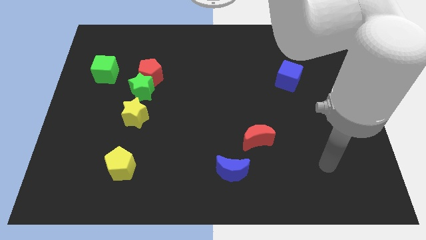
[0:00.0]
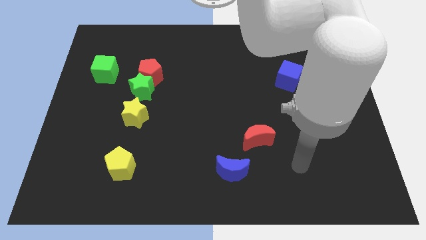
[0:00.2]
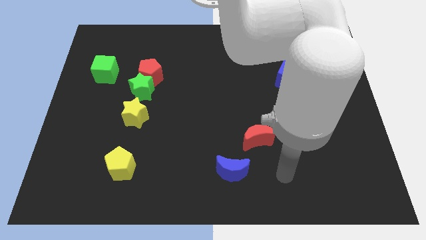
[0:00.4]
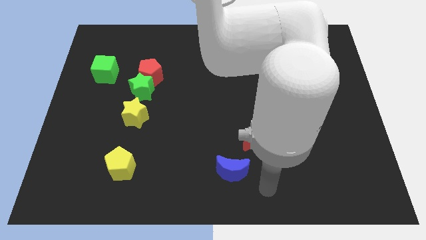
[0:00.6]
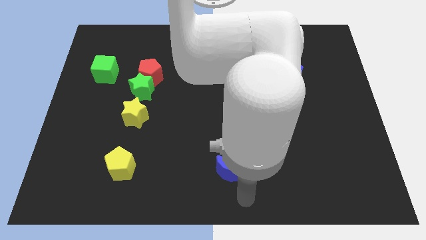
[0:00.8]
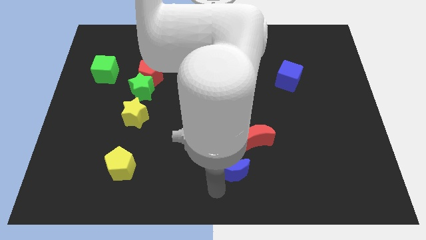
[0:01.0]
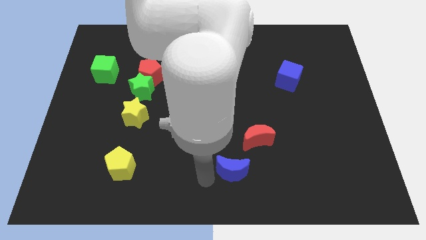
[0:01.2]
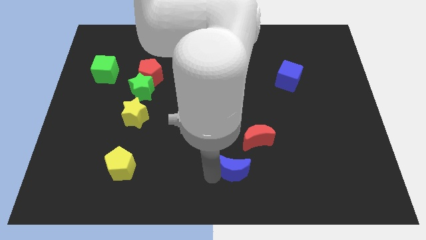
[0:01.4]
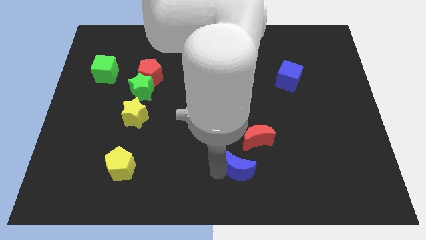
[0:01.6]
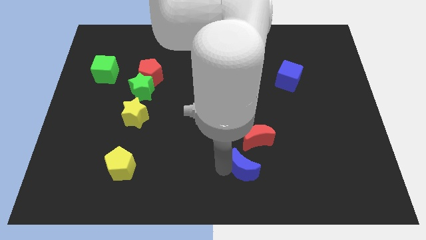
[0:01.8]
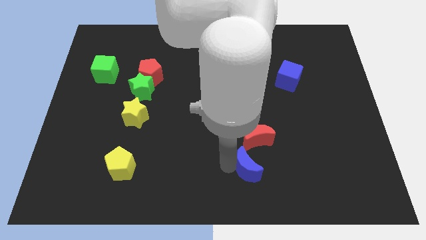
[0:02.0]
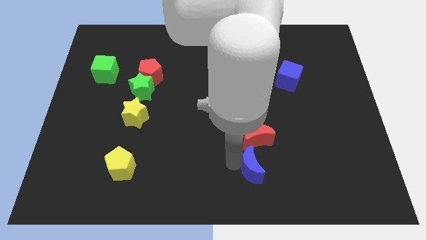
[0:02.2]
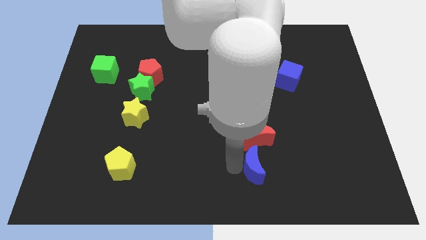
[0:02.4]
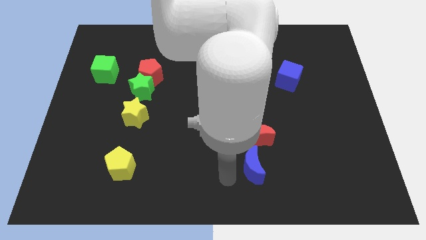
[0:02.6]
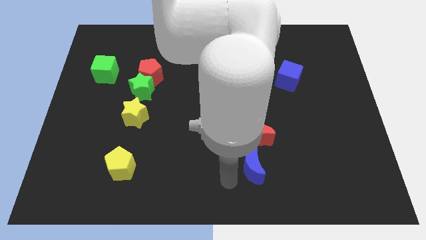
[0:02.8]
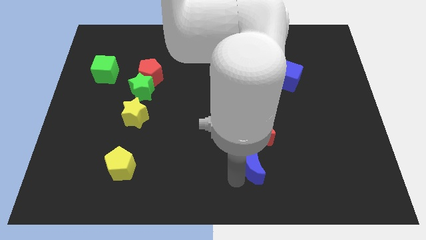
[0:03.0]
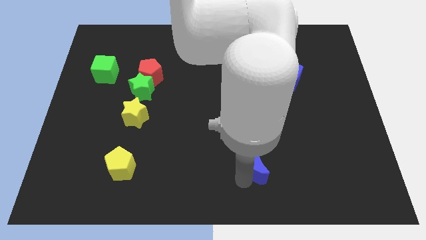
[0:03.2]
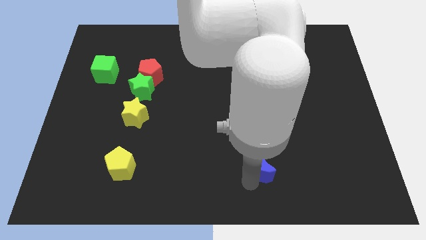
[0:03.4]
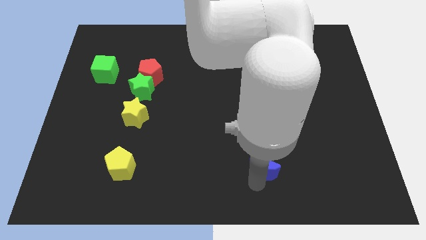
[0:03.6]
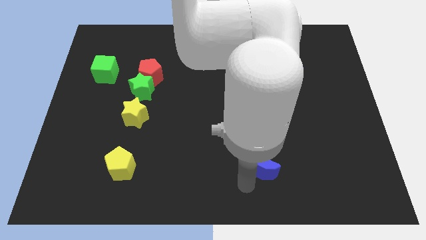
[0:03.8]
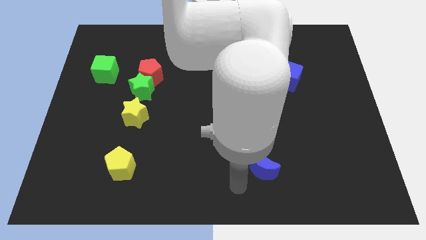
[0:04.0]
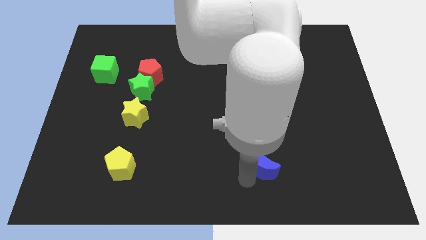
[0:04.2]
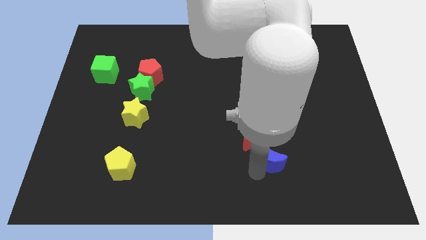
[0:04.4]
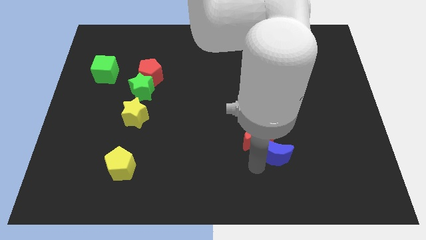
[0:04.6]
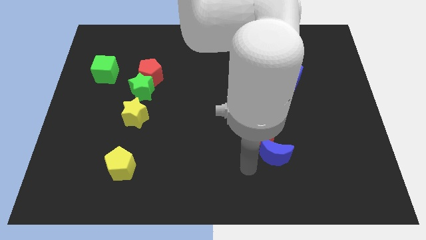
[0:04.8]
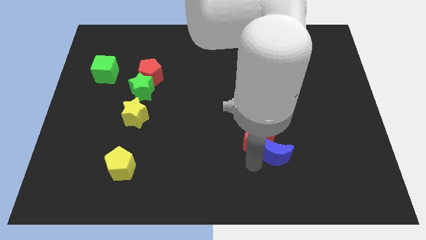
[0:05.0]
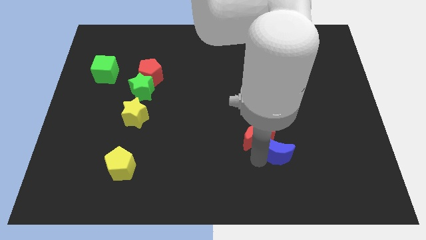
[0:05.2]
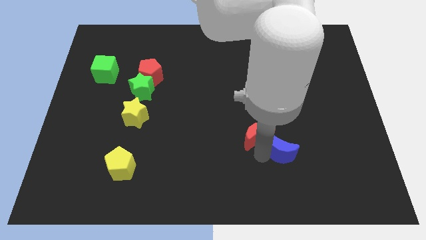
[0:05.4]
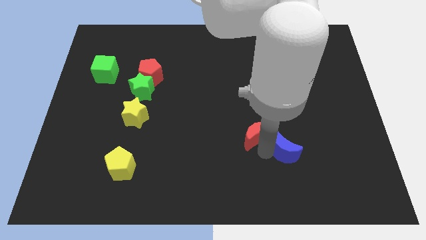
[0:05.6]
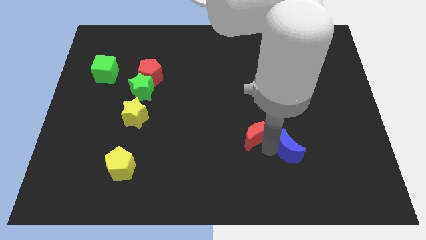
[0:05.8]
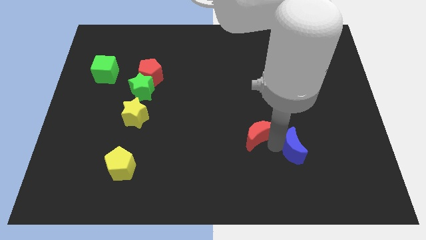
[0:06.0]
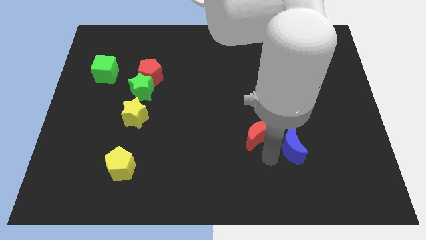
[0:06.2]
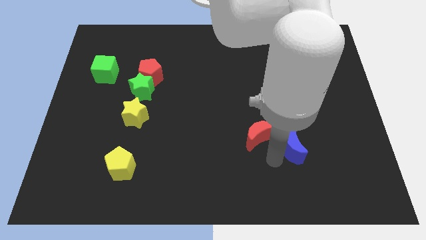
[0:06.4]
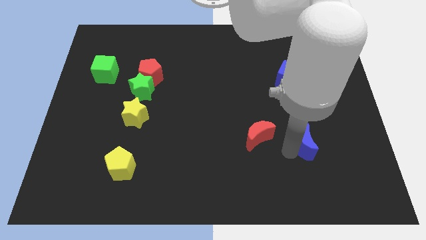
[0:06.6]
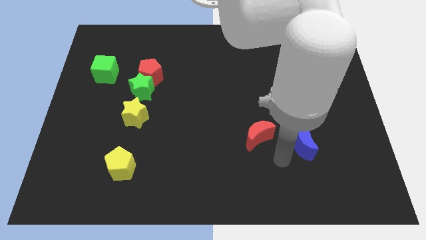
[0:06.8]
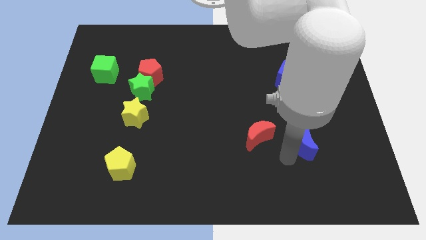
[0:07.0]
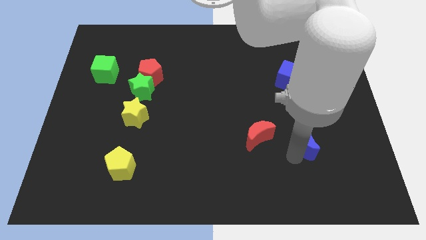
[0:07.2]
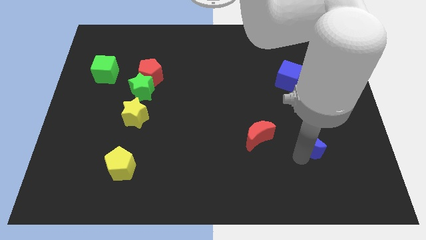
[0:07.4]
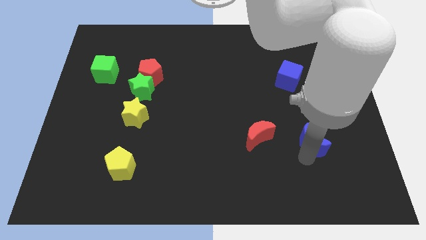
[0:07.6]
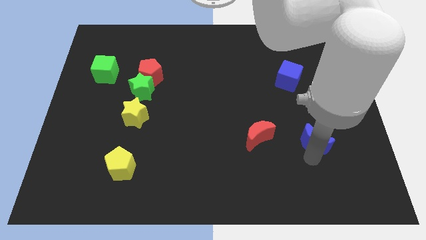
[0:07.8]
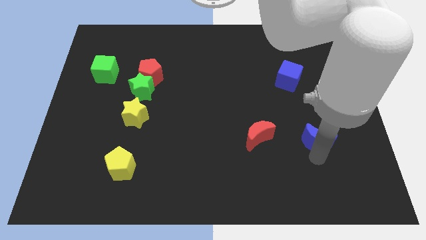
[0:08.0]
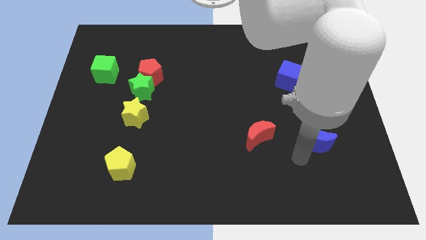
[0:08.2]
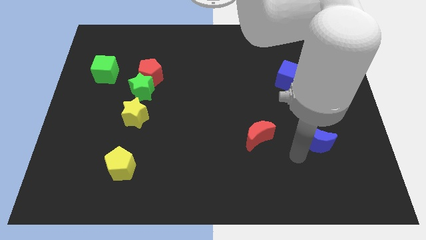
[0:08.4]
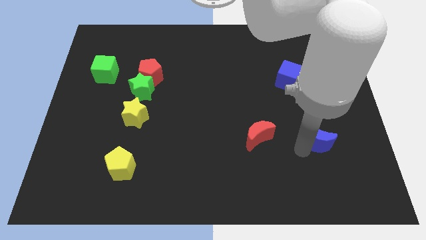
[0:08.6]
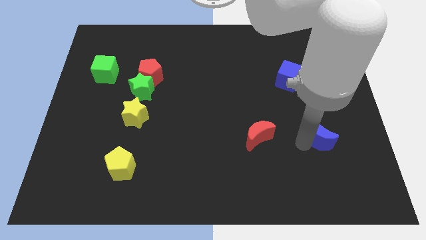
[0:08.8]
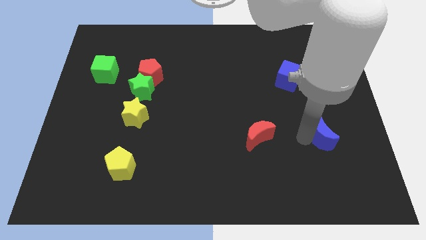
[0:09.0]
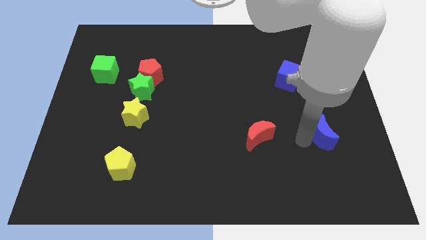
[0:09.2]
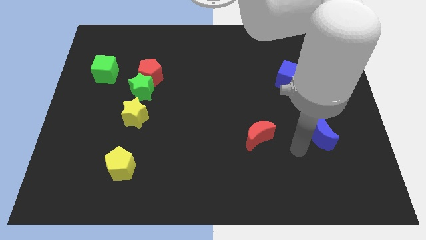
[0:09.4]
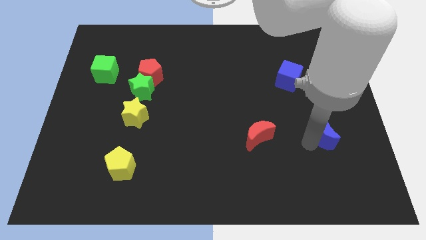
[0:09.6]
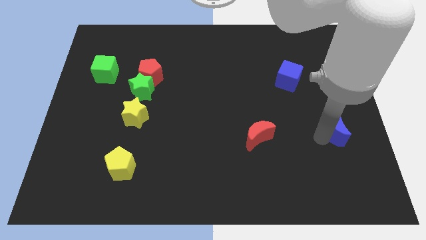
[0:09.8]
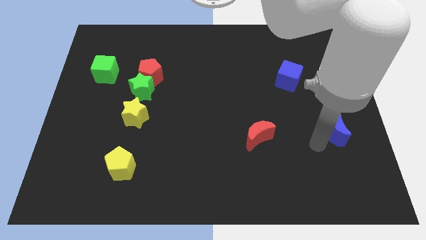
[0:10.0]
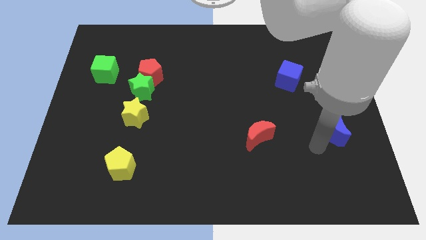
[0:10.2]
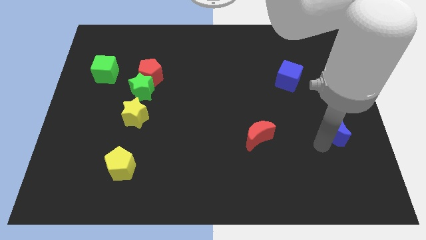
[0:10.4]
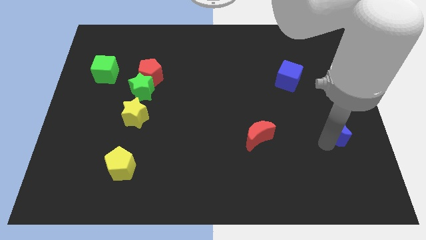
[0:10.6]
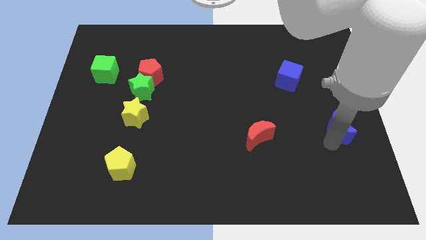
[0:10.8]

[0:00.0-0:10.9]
slide the blue moon to the right side

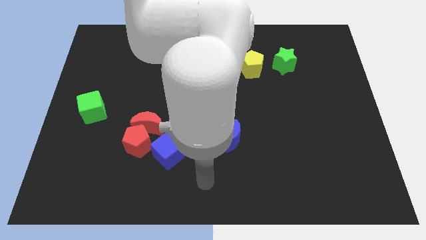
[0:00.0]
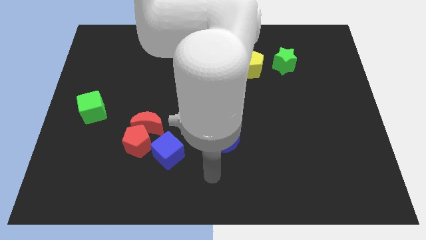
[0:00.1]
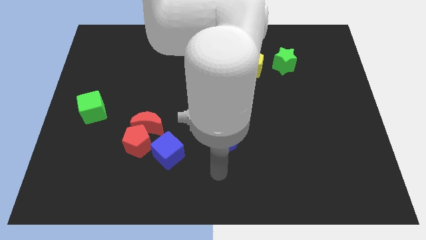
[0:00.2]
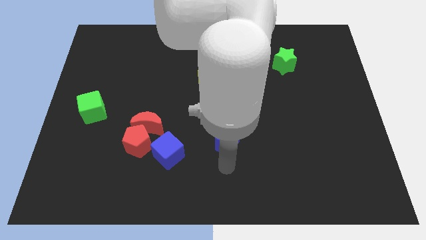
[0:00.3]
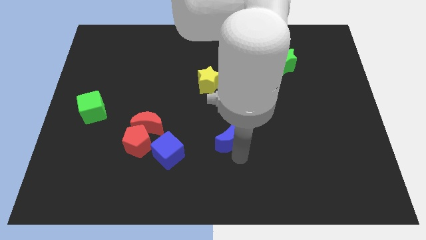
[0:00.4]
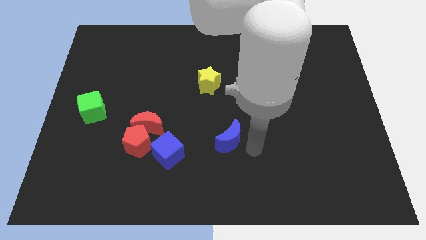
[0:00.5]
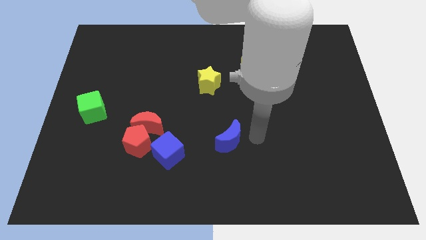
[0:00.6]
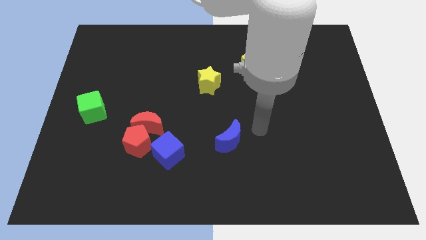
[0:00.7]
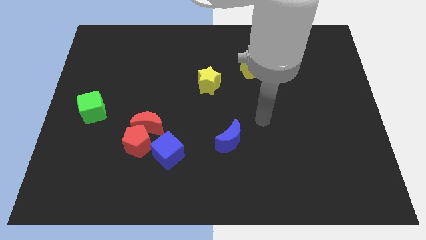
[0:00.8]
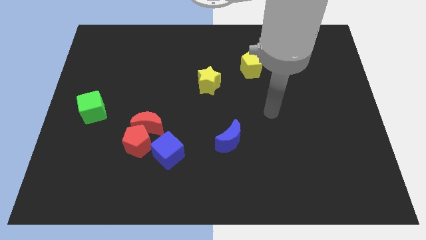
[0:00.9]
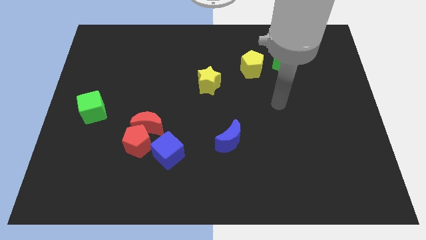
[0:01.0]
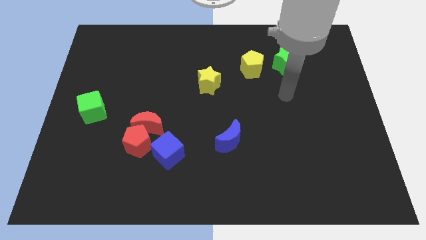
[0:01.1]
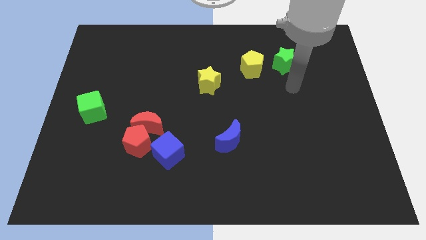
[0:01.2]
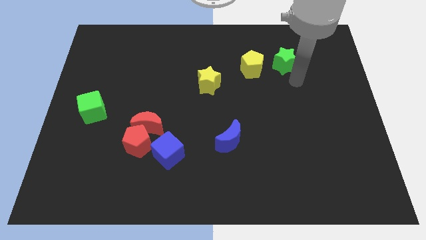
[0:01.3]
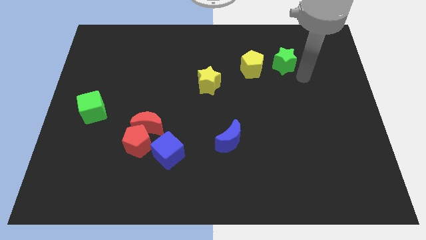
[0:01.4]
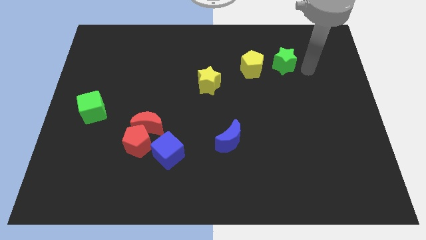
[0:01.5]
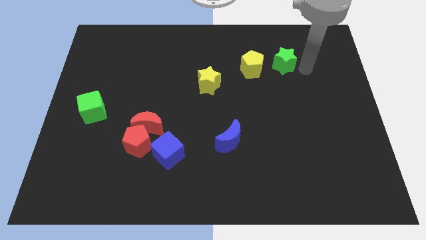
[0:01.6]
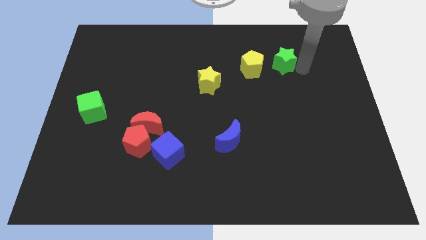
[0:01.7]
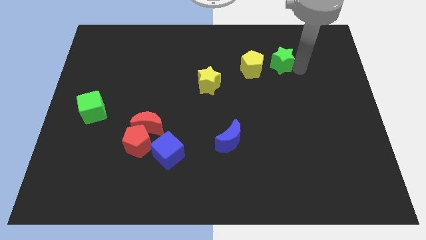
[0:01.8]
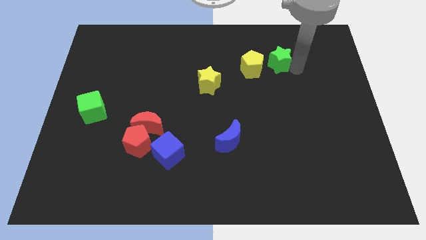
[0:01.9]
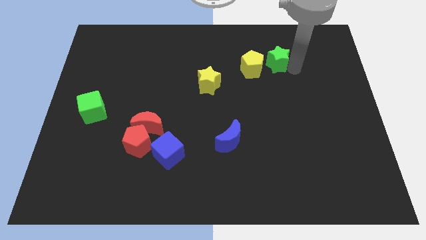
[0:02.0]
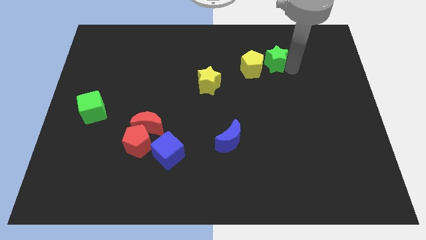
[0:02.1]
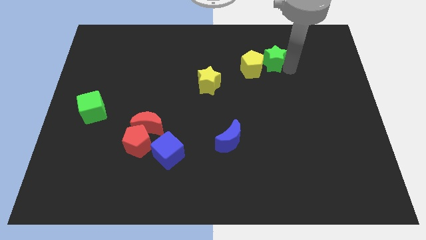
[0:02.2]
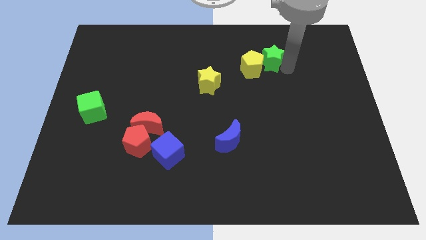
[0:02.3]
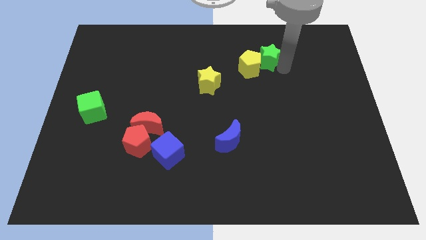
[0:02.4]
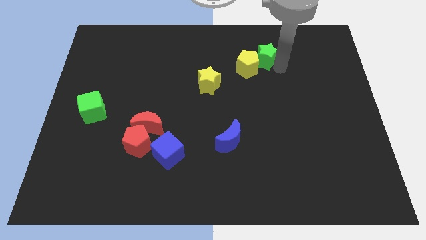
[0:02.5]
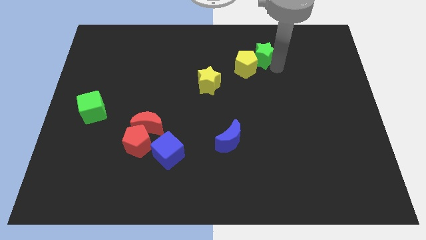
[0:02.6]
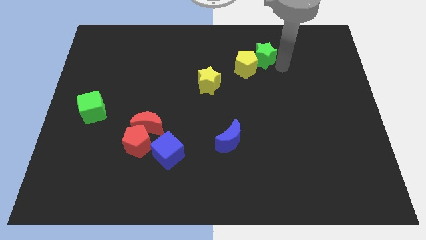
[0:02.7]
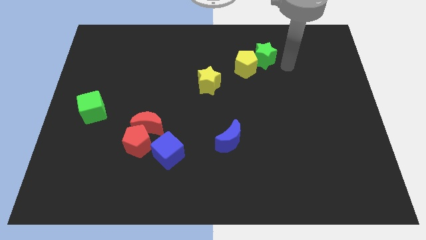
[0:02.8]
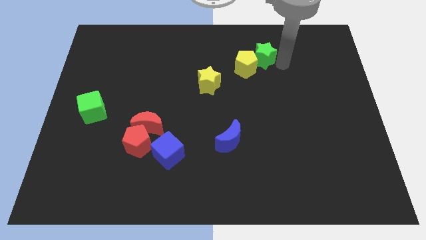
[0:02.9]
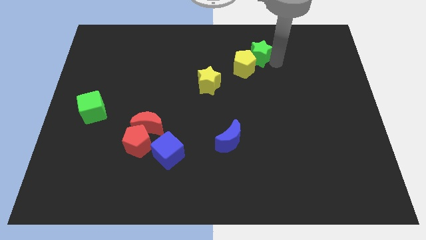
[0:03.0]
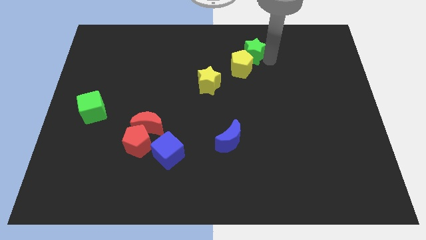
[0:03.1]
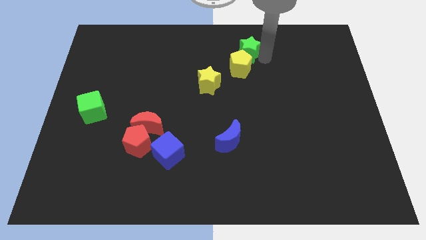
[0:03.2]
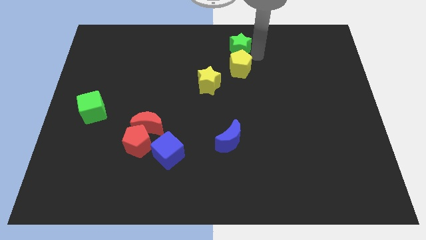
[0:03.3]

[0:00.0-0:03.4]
move the green star to the top
